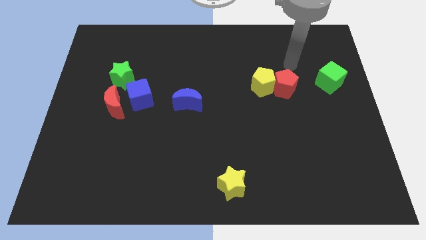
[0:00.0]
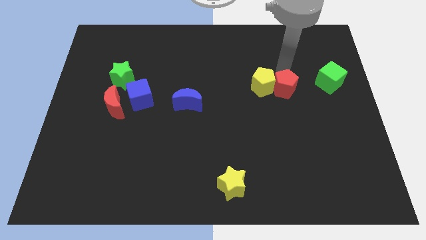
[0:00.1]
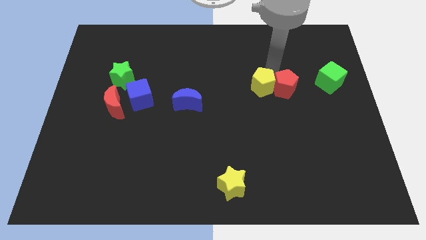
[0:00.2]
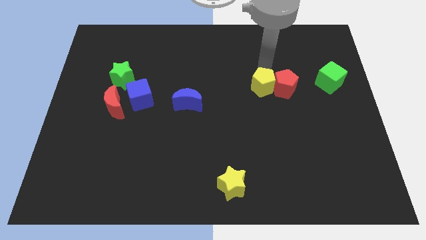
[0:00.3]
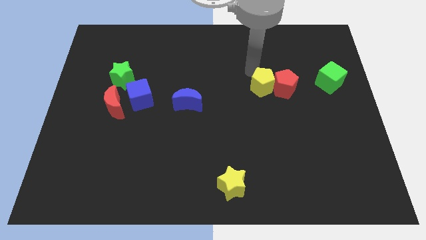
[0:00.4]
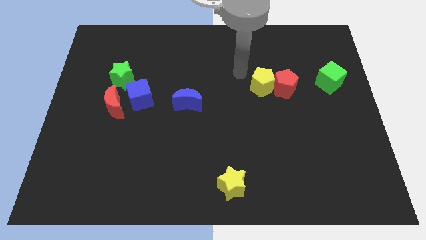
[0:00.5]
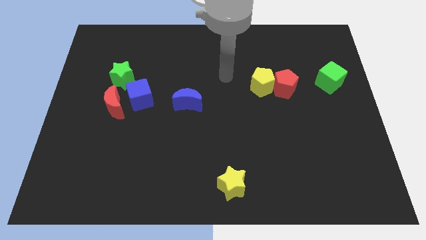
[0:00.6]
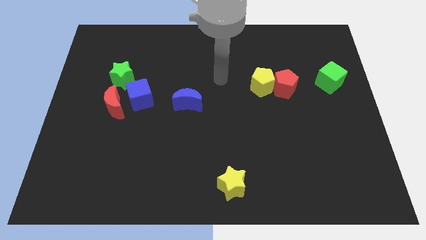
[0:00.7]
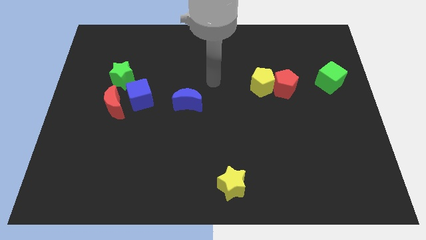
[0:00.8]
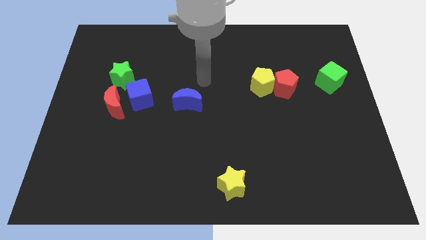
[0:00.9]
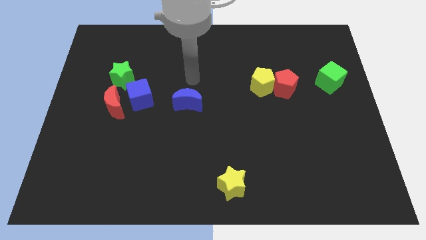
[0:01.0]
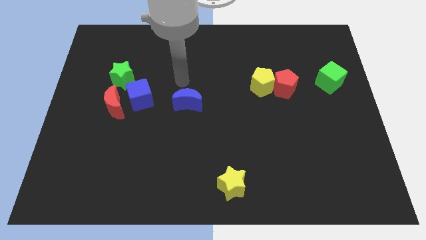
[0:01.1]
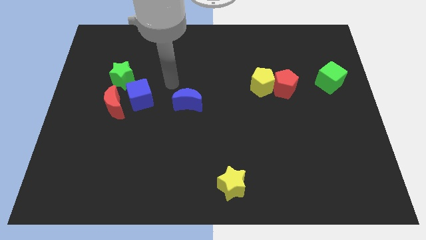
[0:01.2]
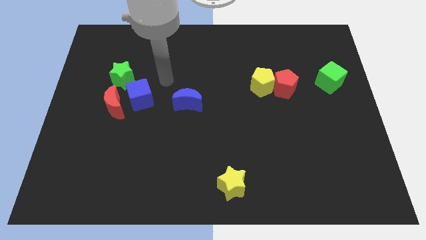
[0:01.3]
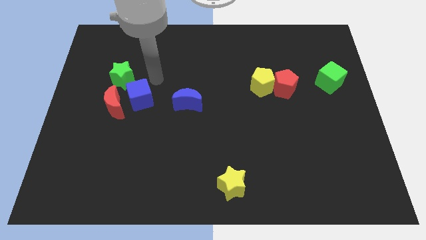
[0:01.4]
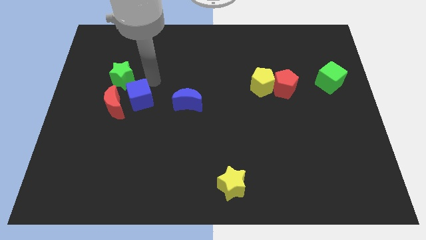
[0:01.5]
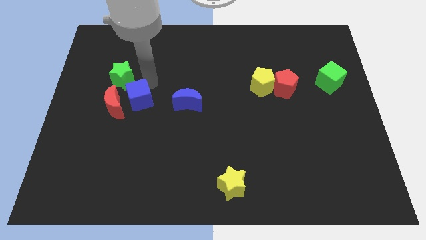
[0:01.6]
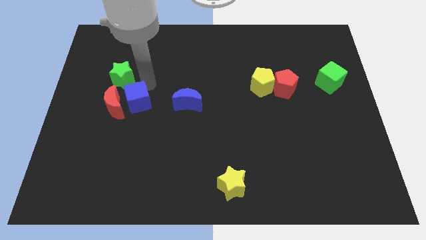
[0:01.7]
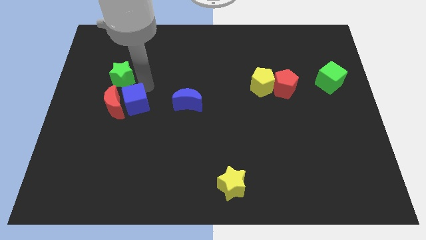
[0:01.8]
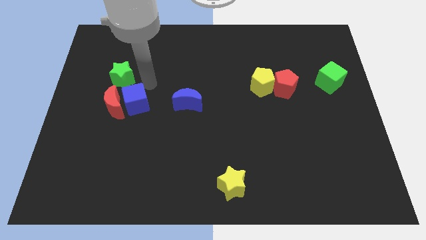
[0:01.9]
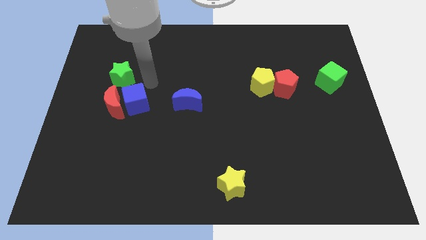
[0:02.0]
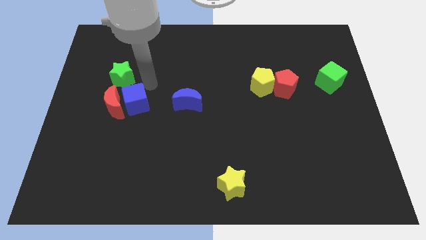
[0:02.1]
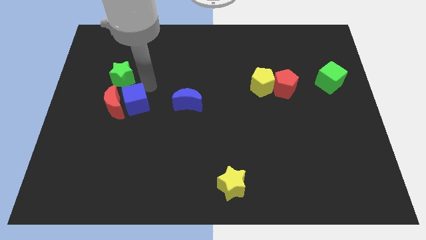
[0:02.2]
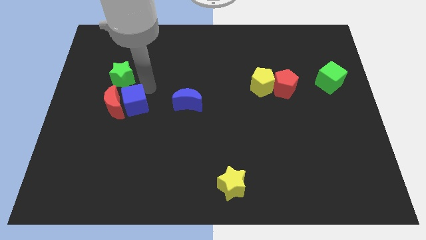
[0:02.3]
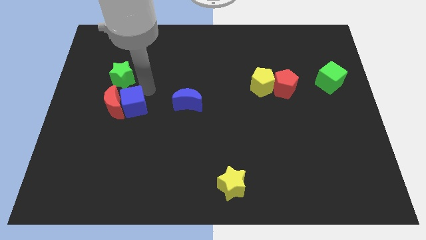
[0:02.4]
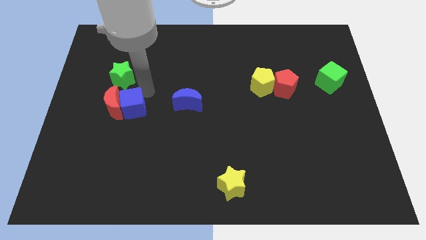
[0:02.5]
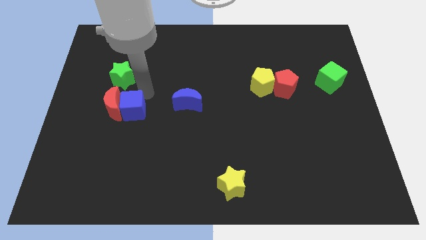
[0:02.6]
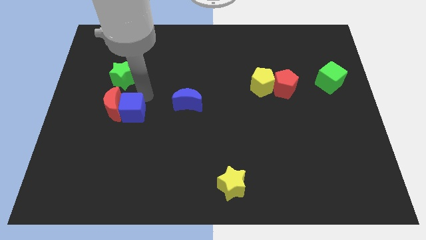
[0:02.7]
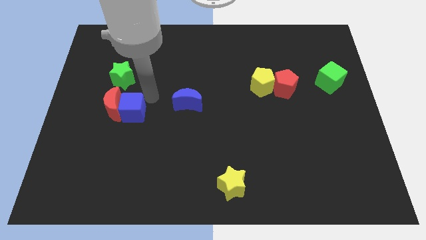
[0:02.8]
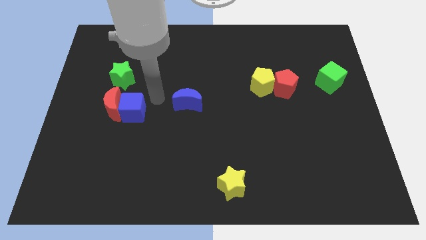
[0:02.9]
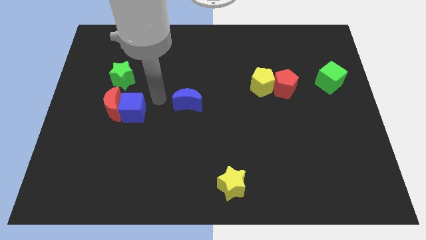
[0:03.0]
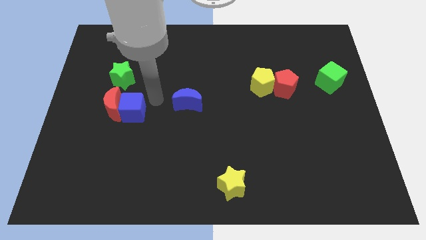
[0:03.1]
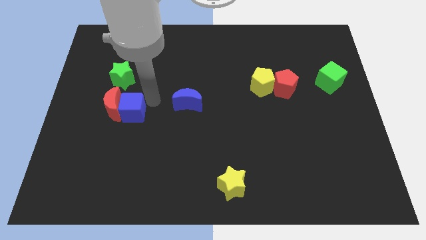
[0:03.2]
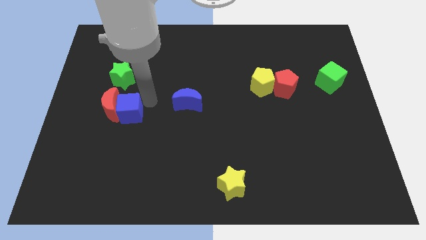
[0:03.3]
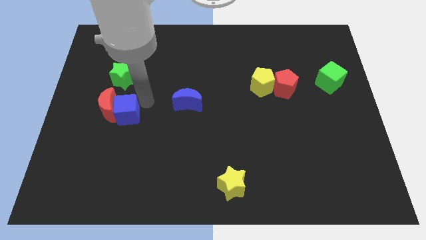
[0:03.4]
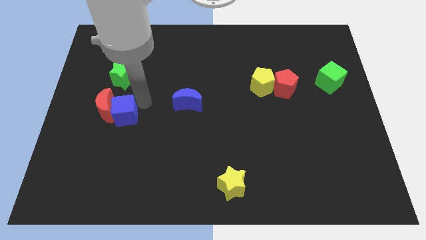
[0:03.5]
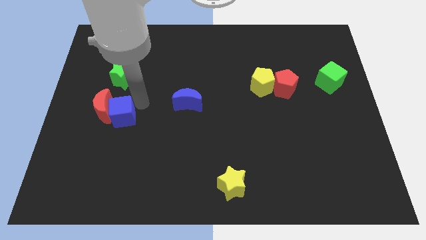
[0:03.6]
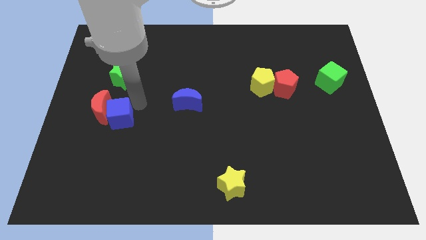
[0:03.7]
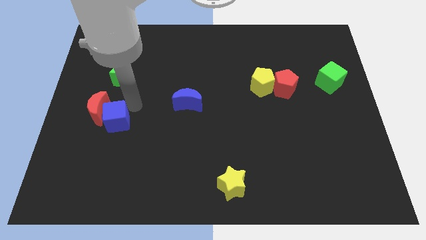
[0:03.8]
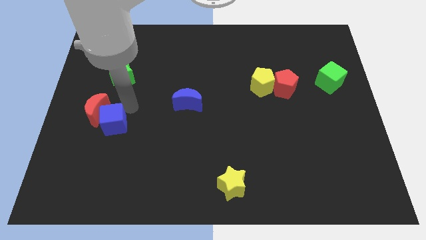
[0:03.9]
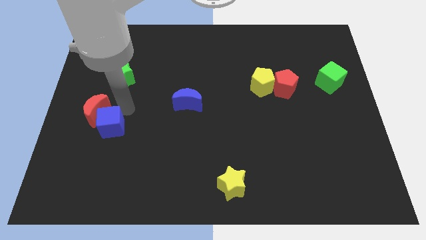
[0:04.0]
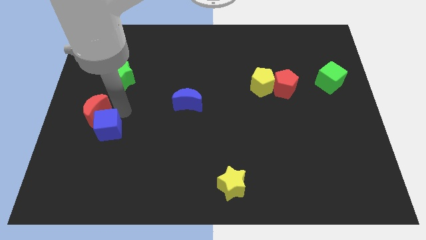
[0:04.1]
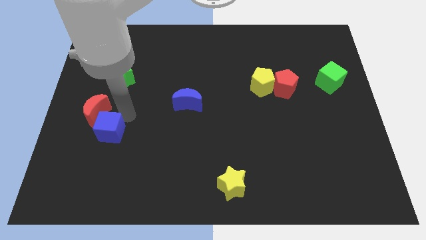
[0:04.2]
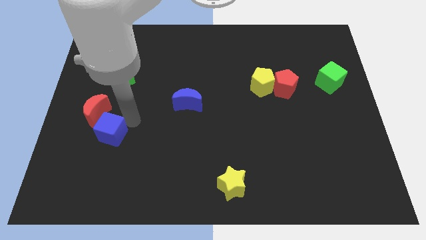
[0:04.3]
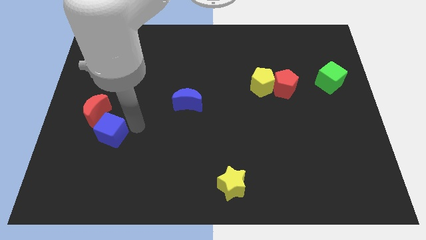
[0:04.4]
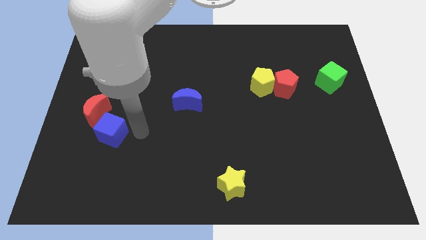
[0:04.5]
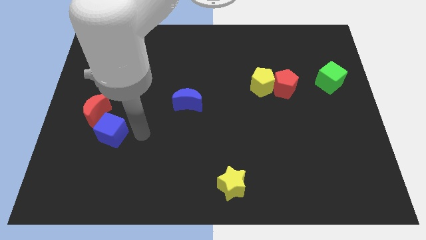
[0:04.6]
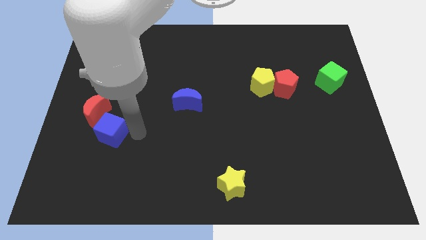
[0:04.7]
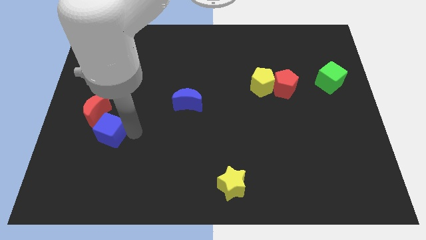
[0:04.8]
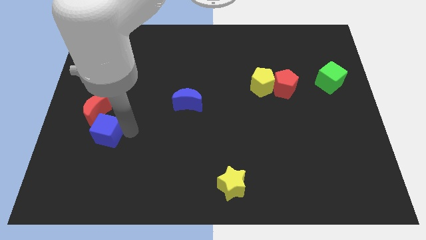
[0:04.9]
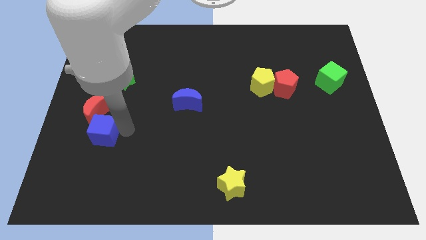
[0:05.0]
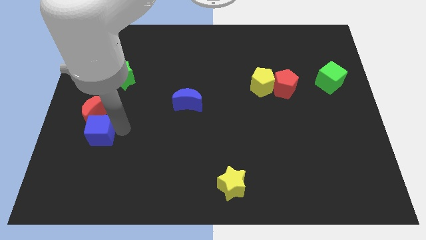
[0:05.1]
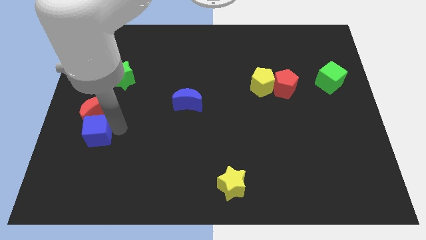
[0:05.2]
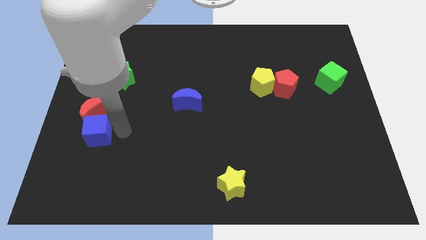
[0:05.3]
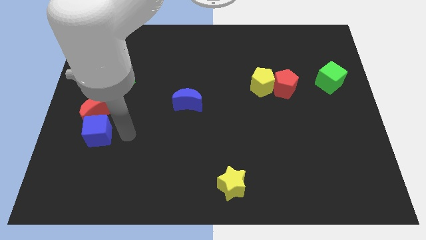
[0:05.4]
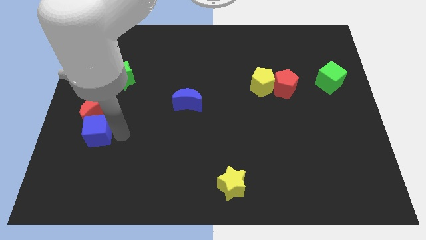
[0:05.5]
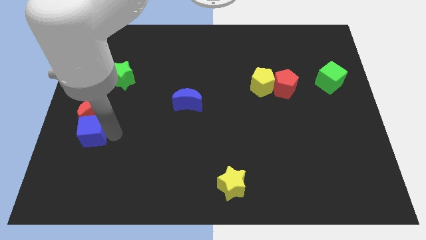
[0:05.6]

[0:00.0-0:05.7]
slide the blue cube diagonally down and to the left of the red moon

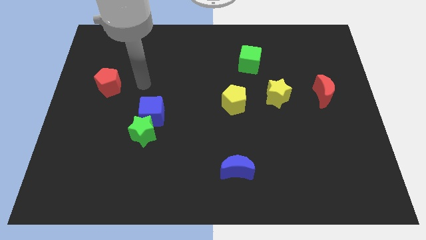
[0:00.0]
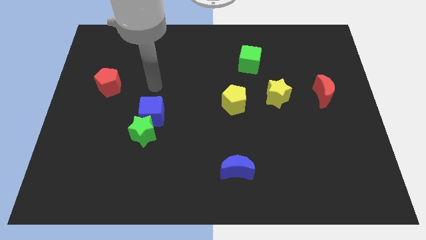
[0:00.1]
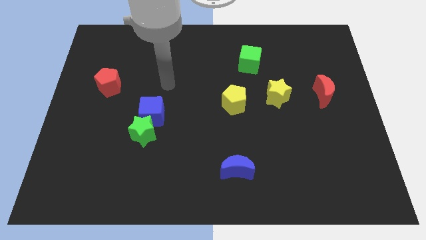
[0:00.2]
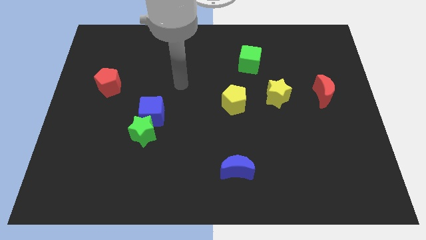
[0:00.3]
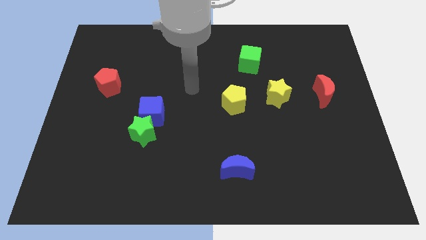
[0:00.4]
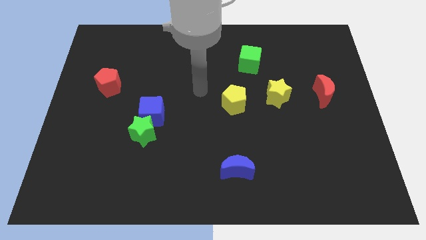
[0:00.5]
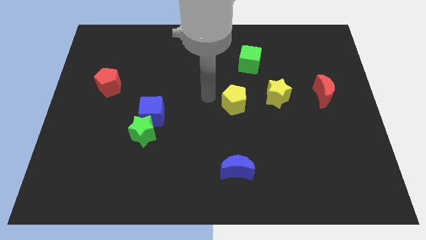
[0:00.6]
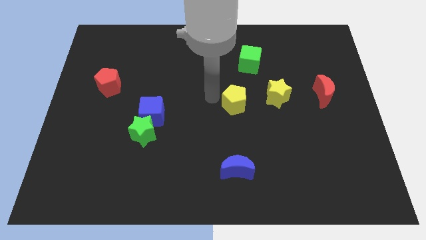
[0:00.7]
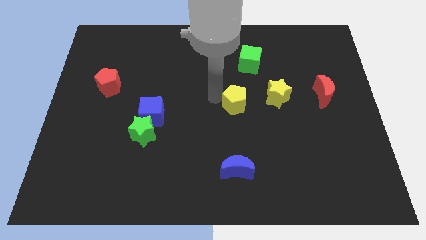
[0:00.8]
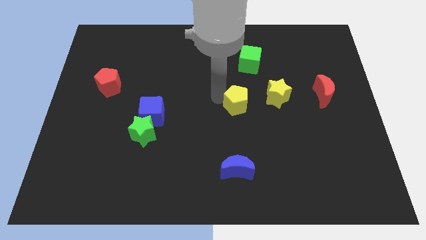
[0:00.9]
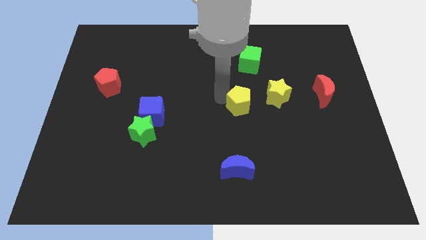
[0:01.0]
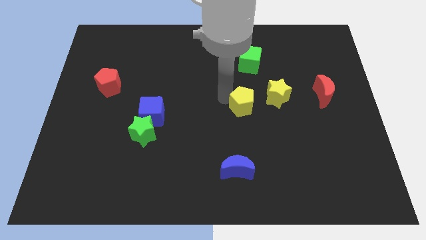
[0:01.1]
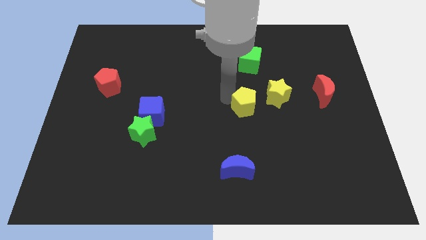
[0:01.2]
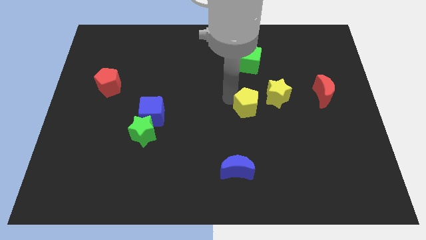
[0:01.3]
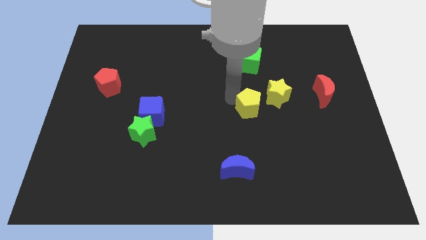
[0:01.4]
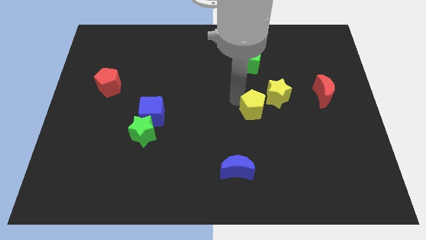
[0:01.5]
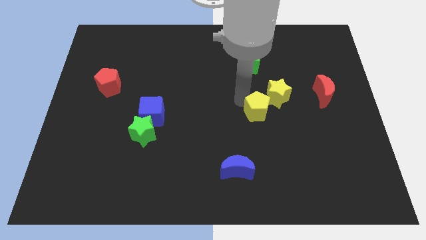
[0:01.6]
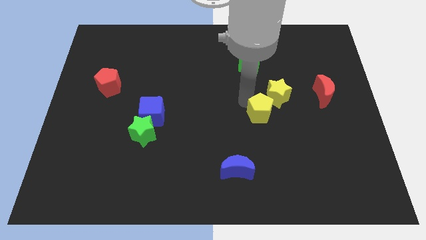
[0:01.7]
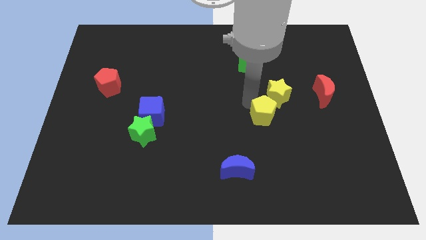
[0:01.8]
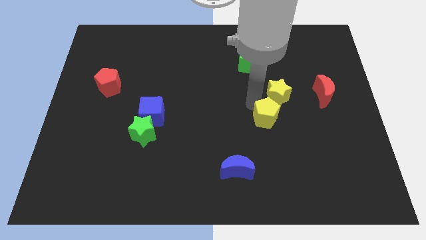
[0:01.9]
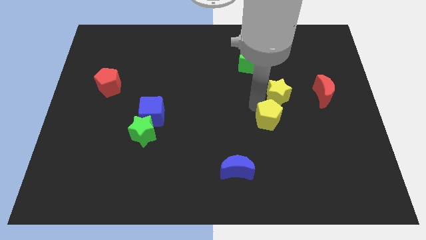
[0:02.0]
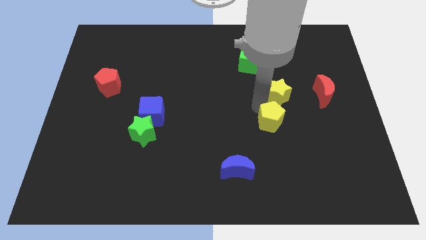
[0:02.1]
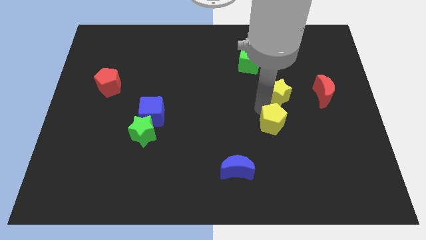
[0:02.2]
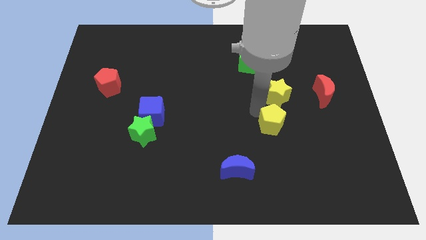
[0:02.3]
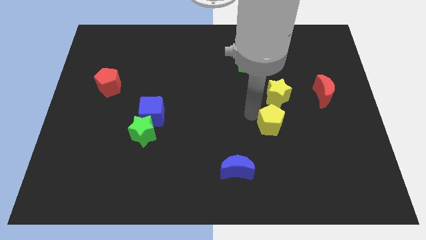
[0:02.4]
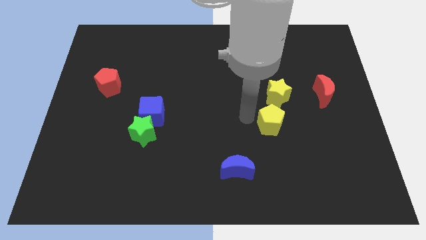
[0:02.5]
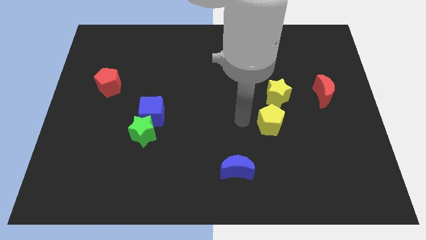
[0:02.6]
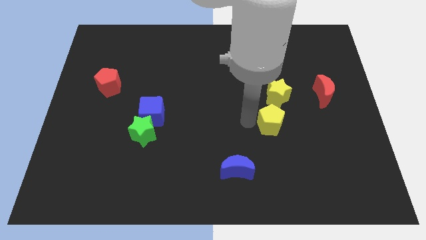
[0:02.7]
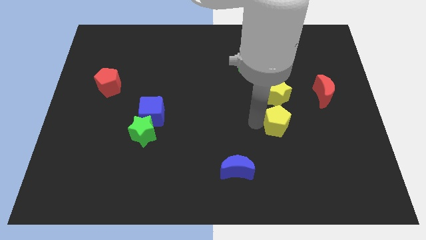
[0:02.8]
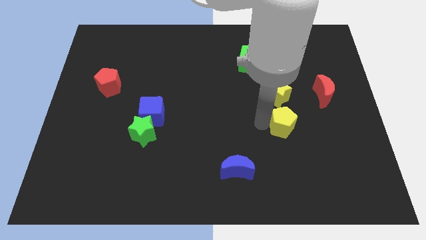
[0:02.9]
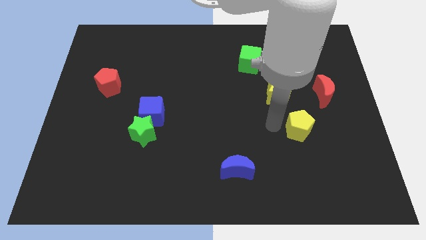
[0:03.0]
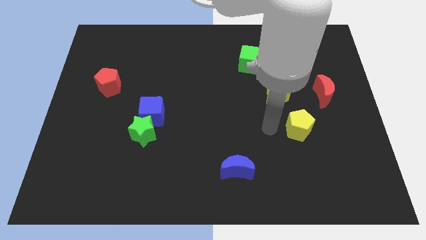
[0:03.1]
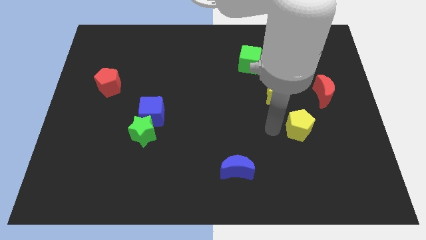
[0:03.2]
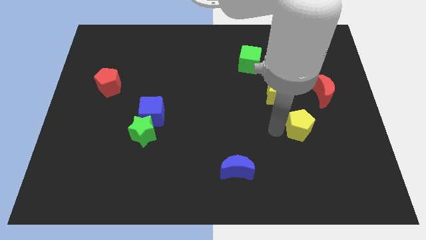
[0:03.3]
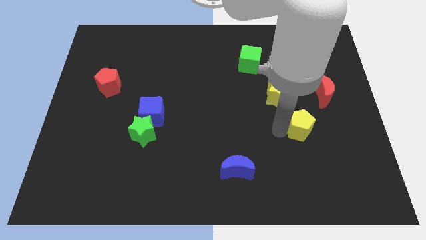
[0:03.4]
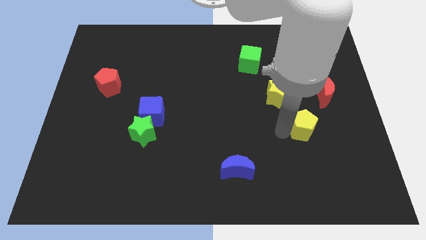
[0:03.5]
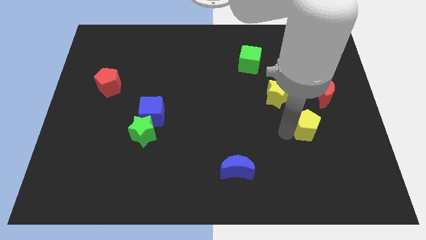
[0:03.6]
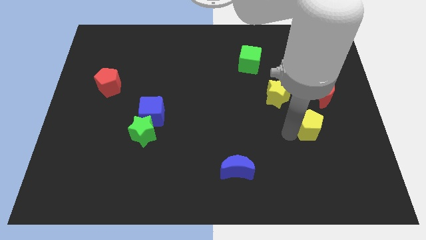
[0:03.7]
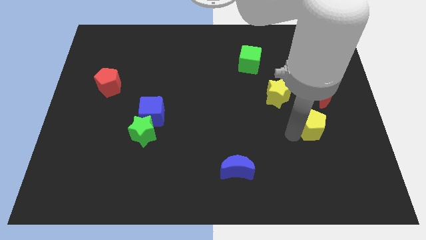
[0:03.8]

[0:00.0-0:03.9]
put the yellow pentagon to the bottom side of the red moon
